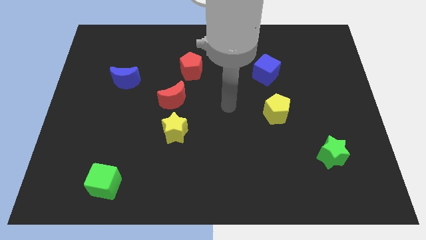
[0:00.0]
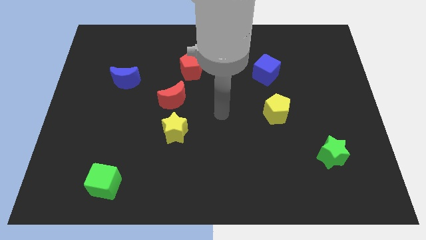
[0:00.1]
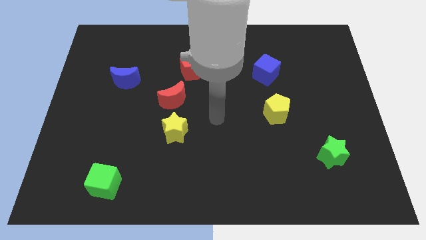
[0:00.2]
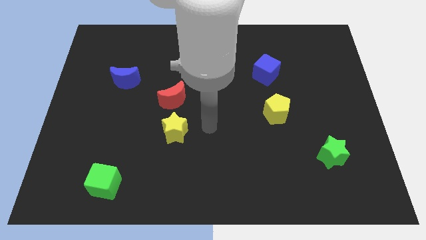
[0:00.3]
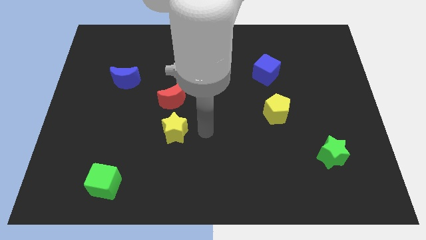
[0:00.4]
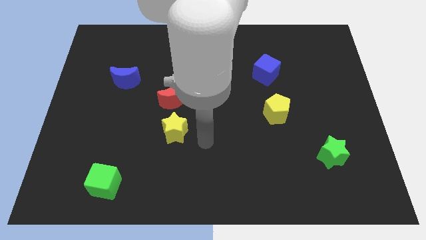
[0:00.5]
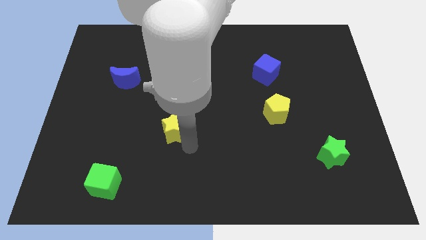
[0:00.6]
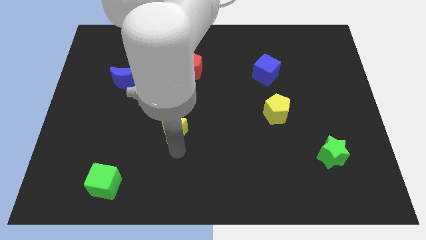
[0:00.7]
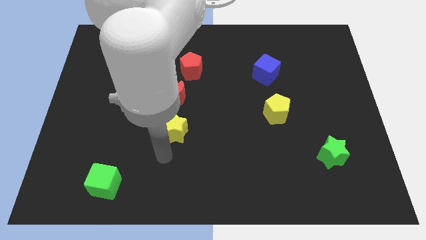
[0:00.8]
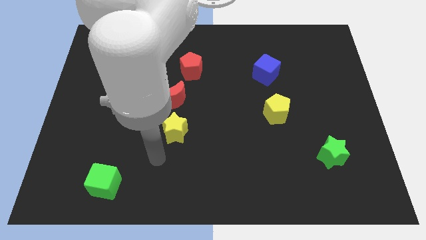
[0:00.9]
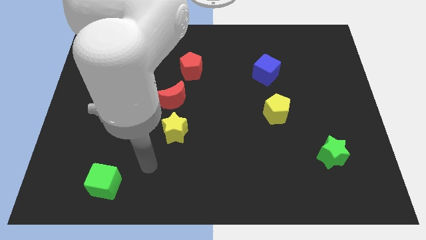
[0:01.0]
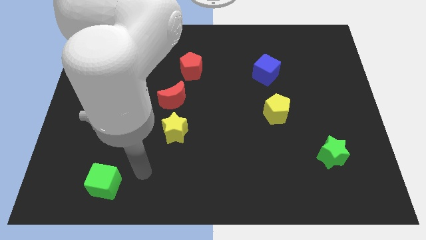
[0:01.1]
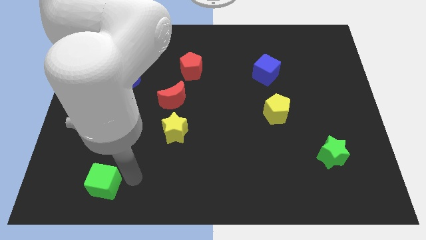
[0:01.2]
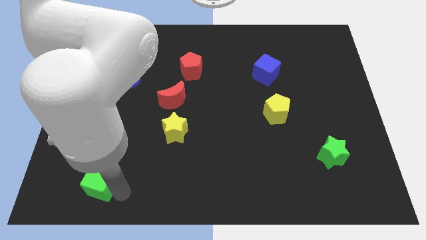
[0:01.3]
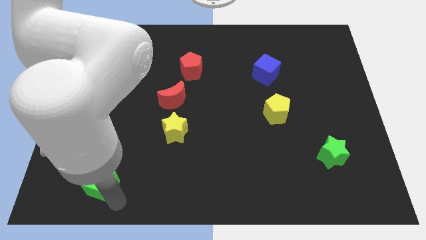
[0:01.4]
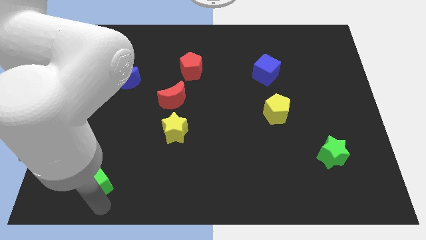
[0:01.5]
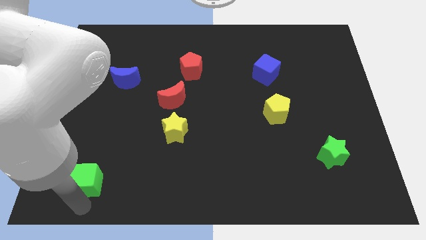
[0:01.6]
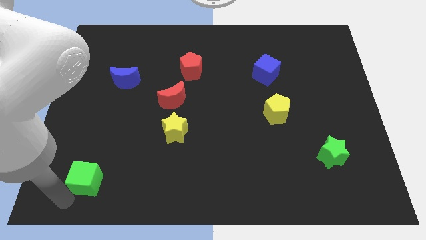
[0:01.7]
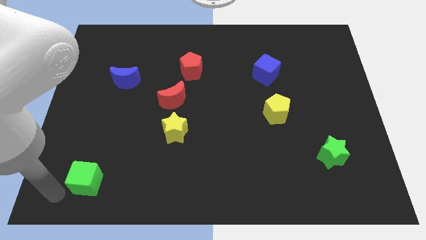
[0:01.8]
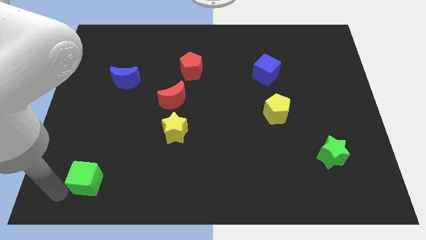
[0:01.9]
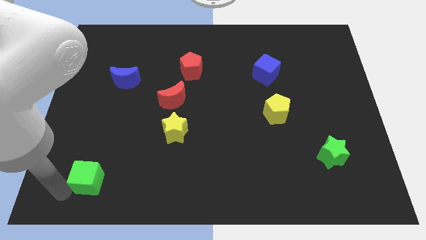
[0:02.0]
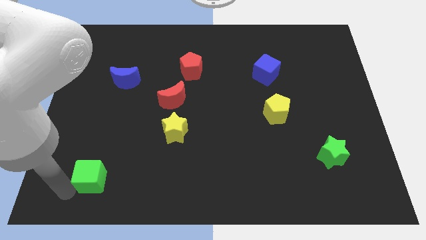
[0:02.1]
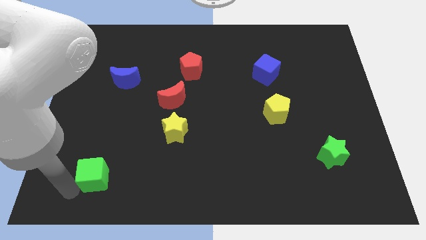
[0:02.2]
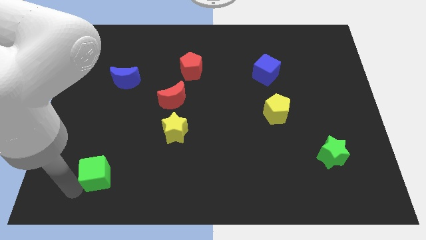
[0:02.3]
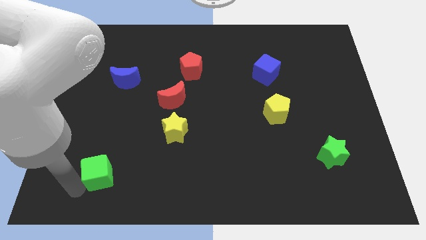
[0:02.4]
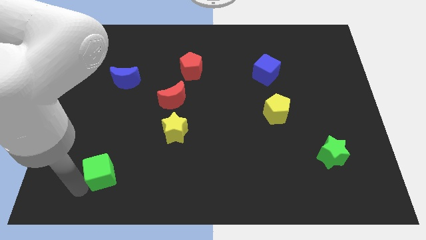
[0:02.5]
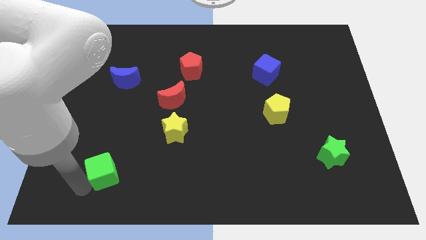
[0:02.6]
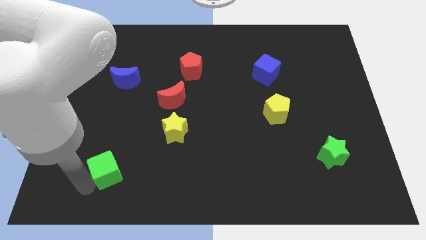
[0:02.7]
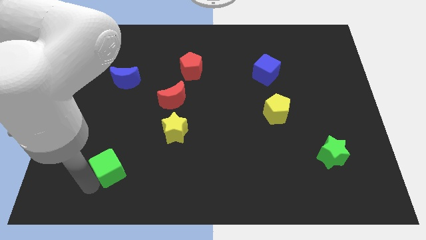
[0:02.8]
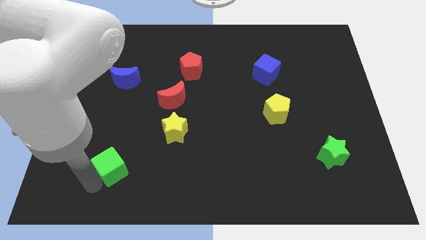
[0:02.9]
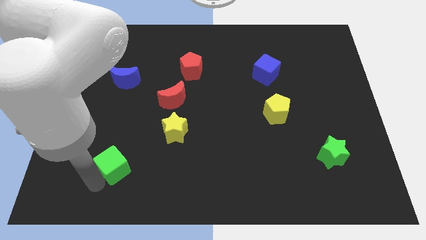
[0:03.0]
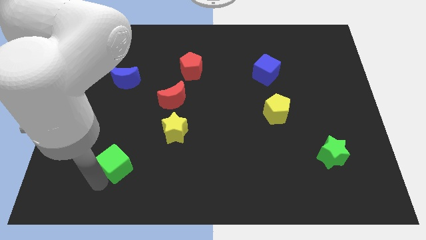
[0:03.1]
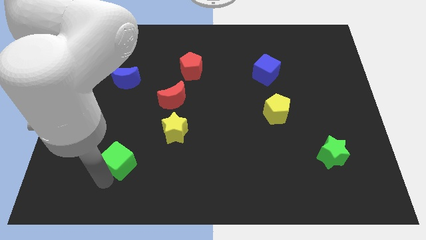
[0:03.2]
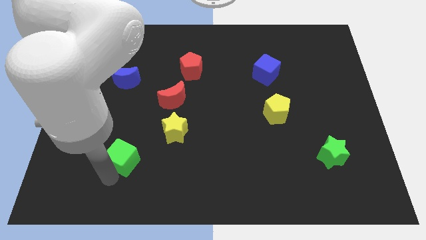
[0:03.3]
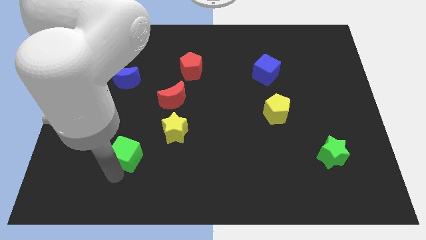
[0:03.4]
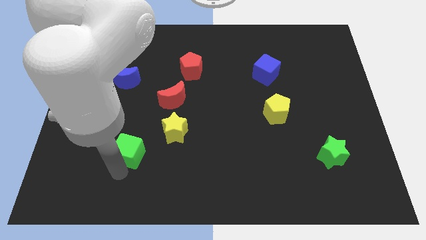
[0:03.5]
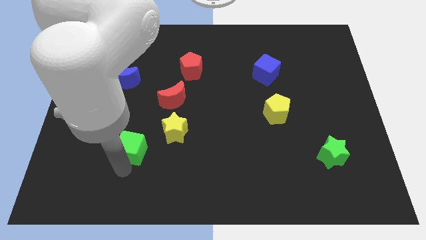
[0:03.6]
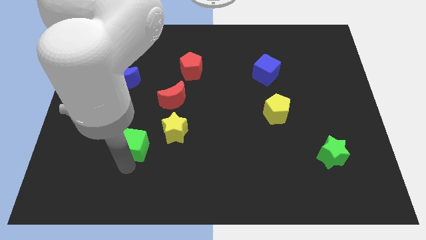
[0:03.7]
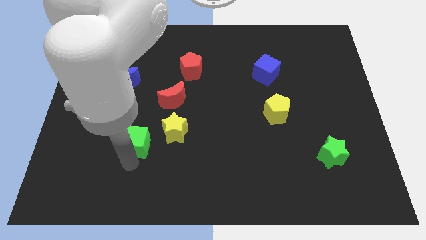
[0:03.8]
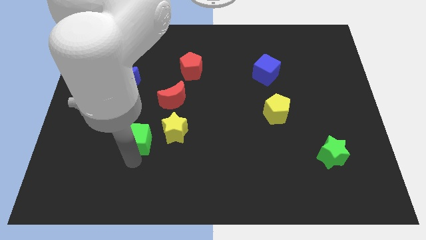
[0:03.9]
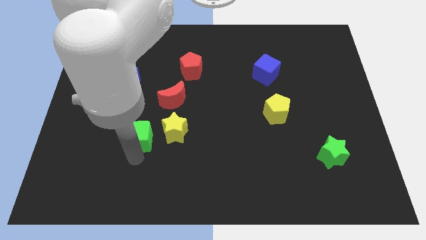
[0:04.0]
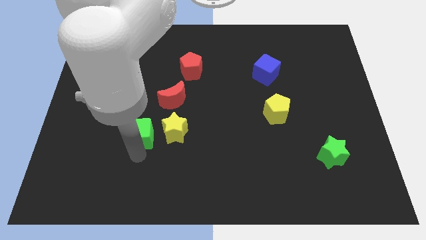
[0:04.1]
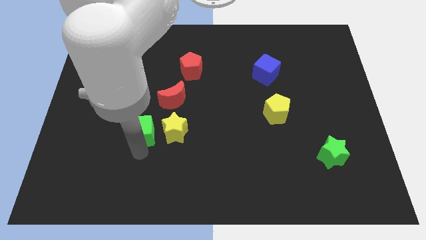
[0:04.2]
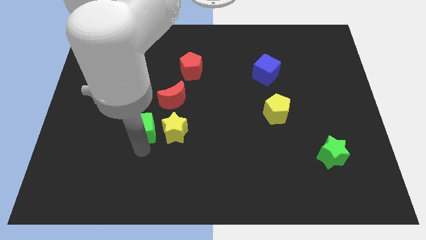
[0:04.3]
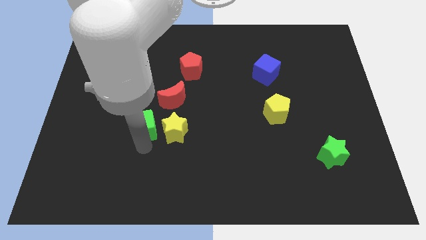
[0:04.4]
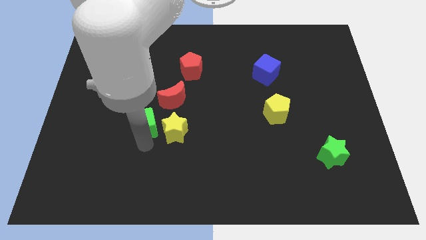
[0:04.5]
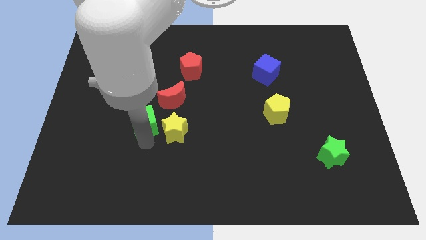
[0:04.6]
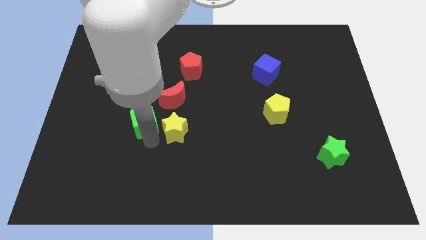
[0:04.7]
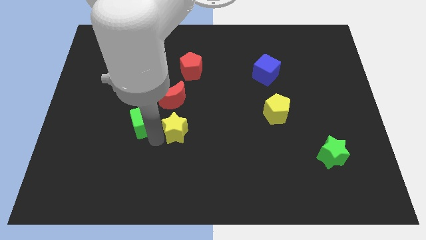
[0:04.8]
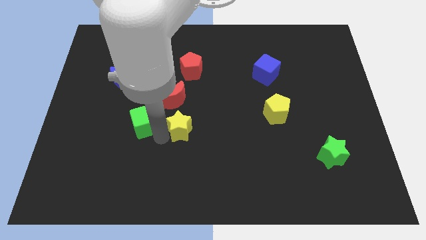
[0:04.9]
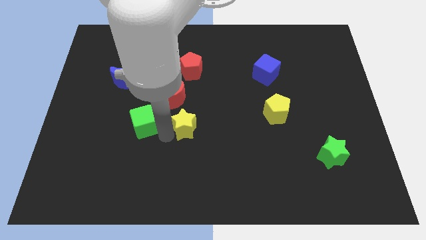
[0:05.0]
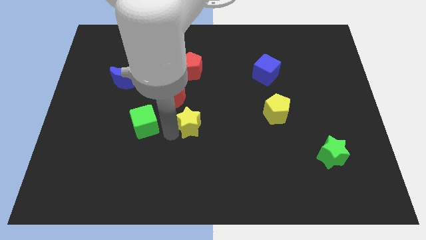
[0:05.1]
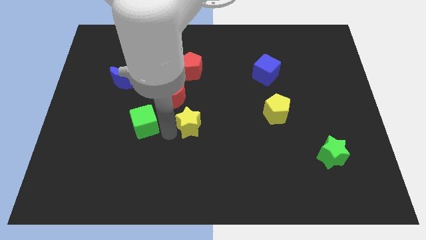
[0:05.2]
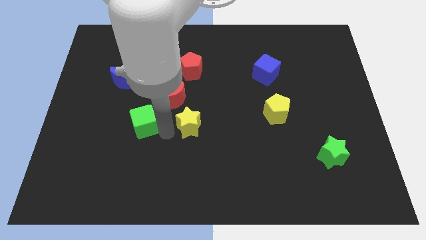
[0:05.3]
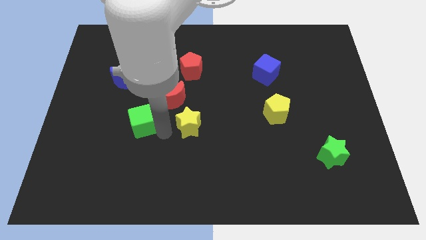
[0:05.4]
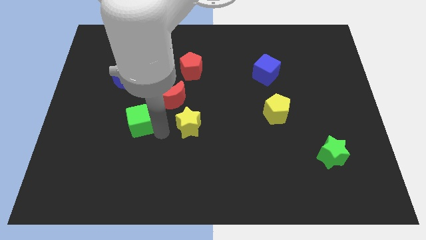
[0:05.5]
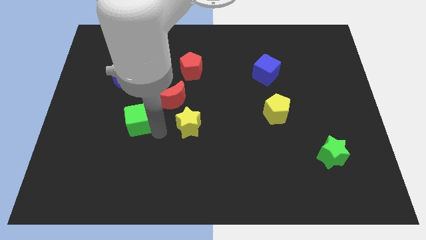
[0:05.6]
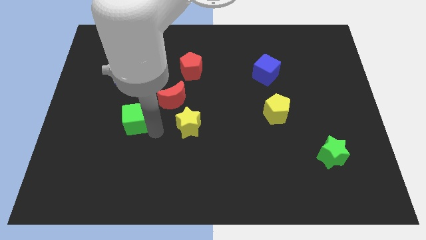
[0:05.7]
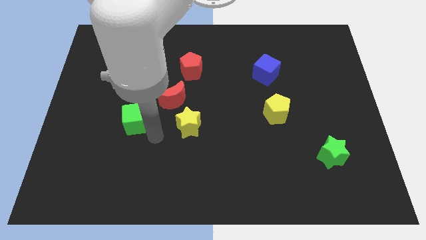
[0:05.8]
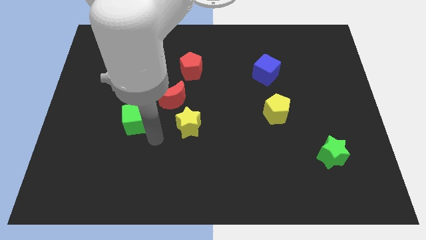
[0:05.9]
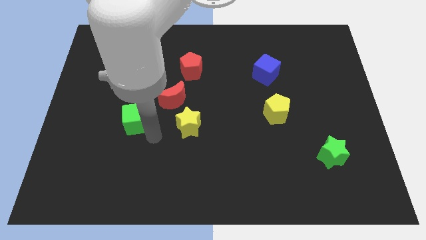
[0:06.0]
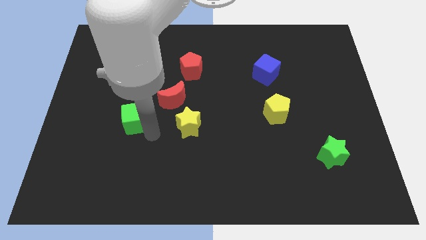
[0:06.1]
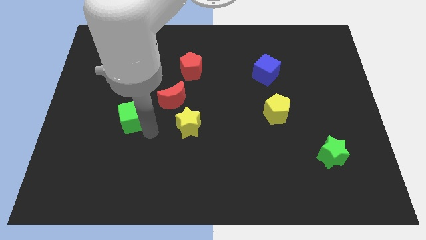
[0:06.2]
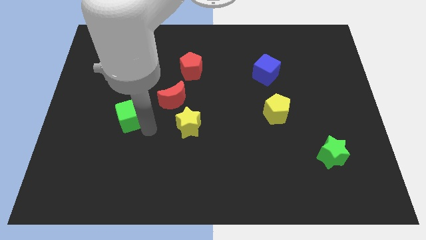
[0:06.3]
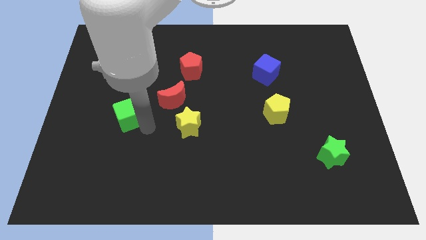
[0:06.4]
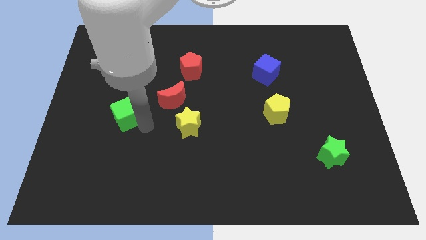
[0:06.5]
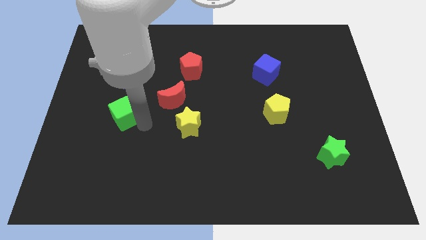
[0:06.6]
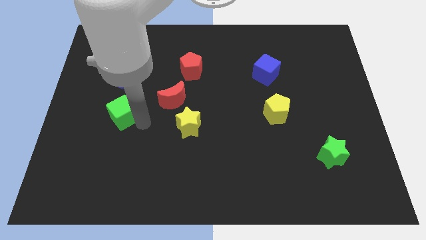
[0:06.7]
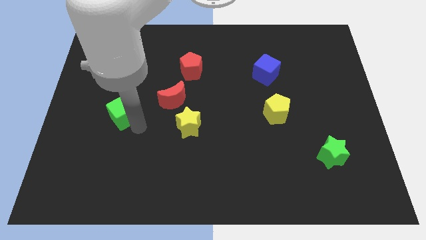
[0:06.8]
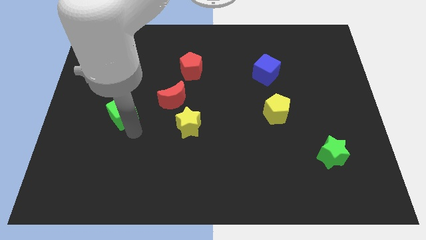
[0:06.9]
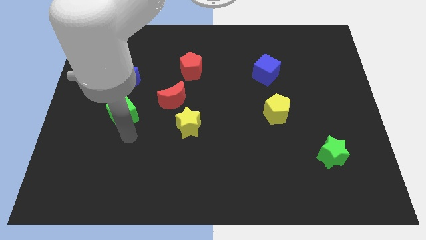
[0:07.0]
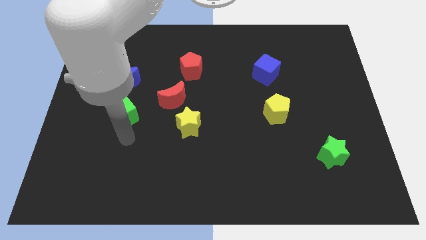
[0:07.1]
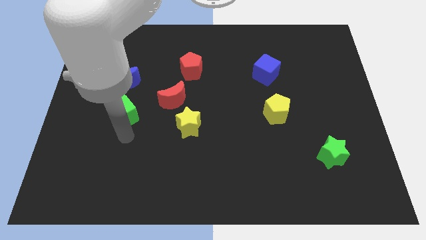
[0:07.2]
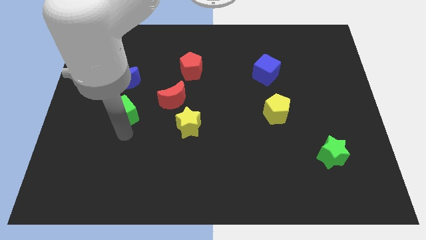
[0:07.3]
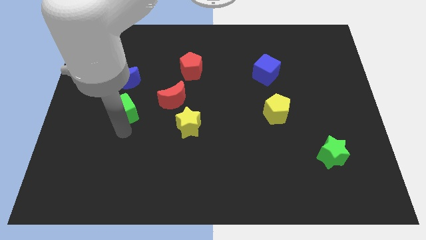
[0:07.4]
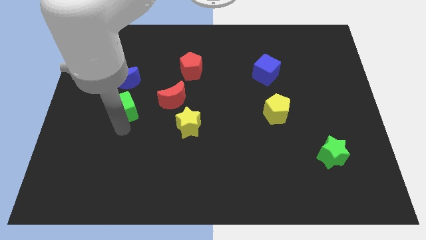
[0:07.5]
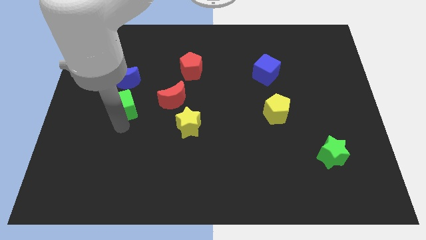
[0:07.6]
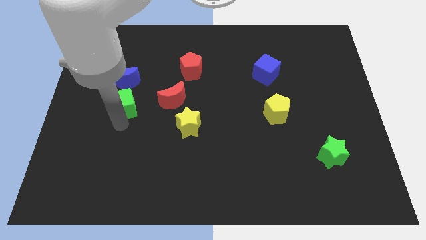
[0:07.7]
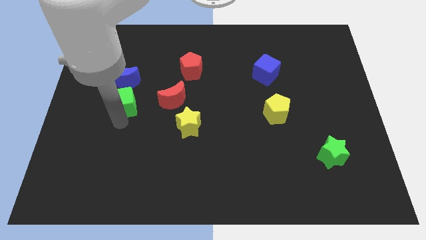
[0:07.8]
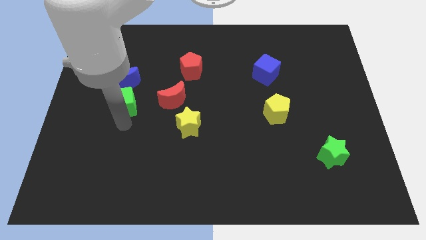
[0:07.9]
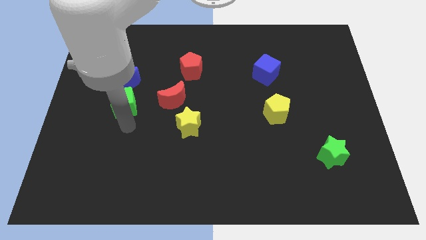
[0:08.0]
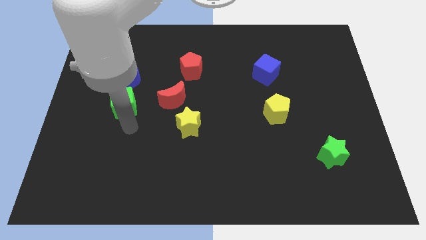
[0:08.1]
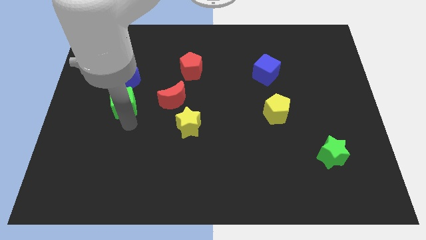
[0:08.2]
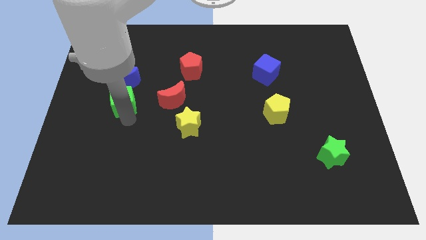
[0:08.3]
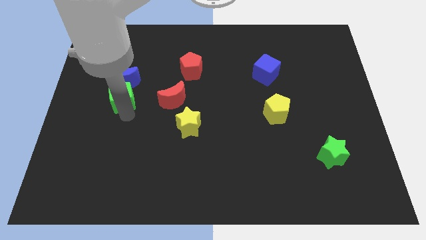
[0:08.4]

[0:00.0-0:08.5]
push the green cube close to the blue moon
